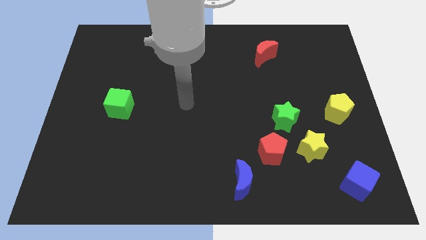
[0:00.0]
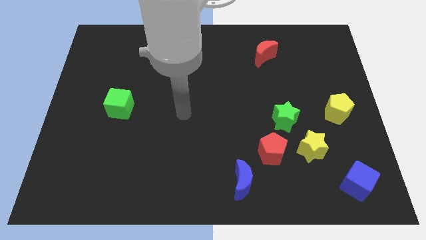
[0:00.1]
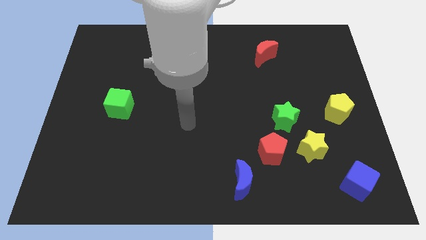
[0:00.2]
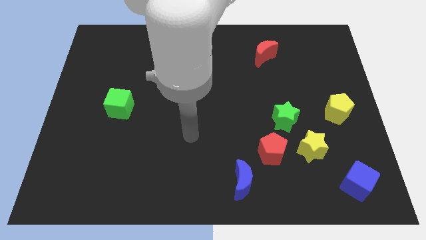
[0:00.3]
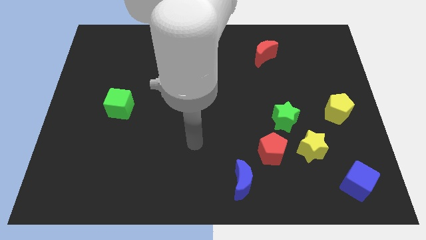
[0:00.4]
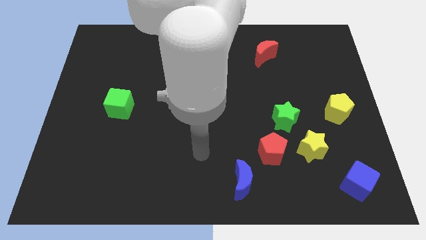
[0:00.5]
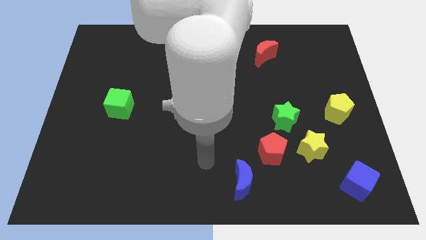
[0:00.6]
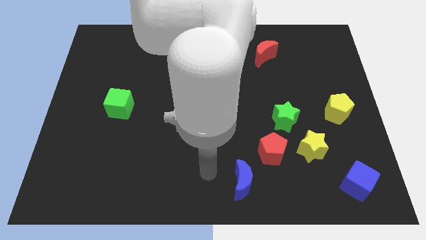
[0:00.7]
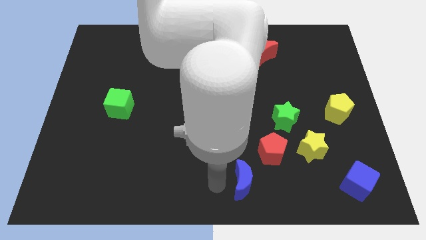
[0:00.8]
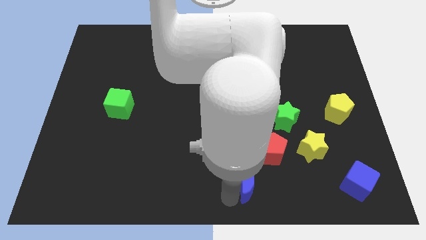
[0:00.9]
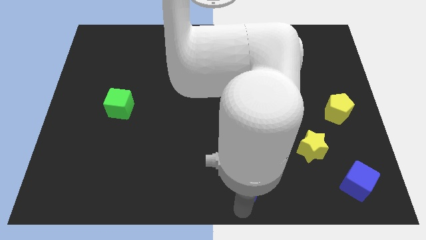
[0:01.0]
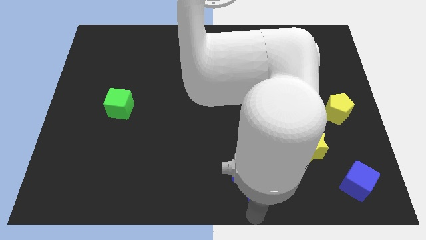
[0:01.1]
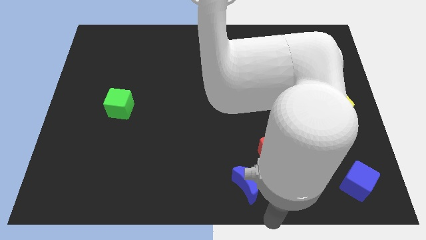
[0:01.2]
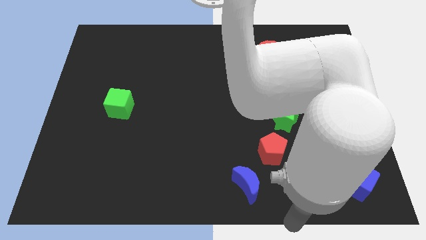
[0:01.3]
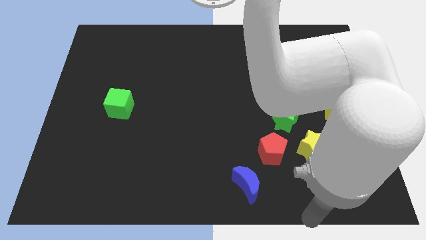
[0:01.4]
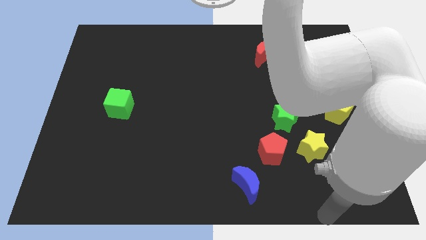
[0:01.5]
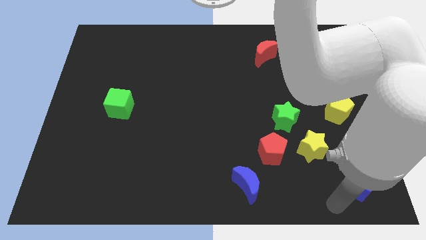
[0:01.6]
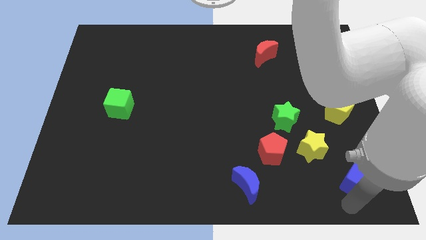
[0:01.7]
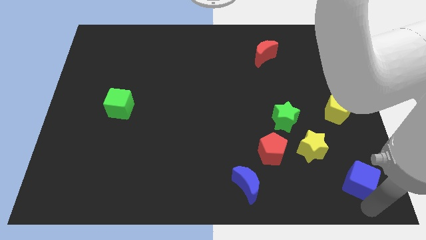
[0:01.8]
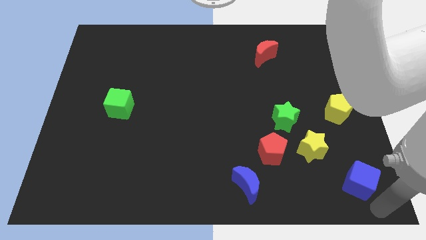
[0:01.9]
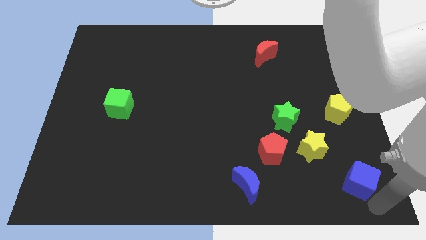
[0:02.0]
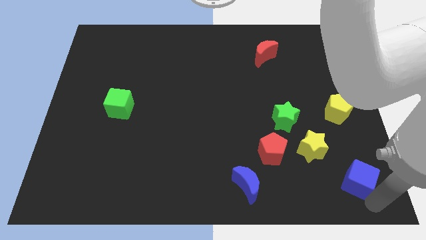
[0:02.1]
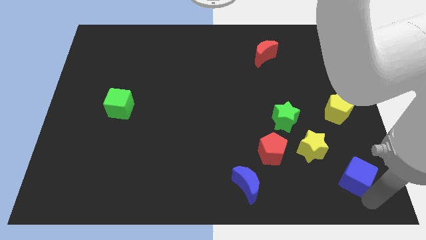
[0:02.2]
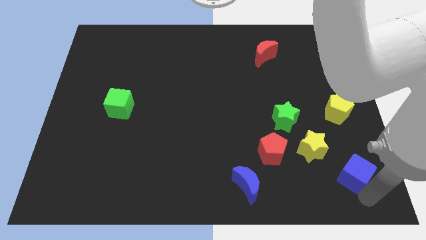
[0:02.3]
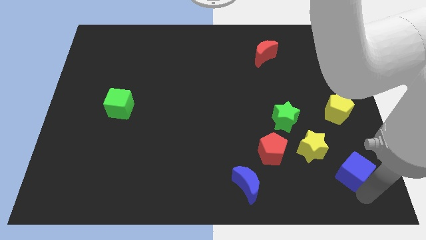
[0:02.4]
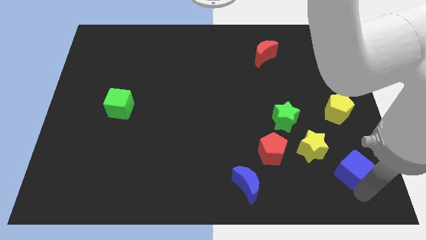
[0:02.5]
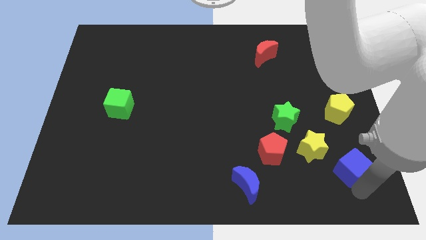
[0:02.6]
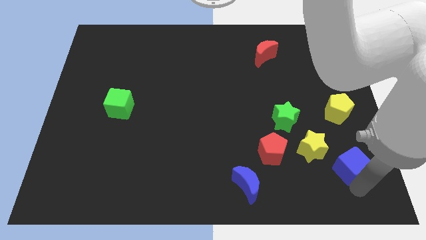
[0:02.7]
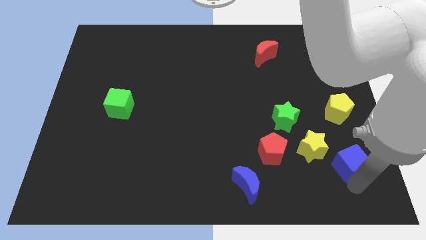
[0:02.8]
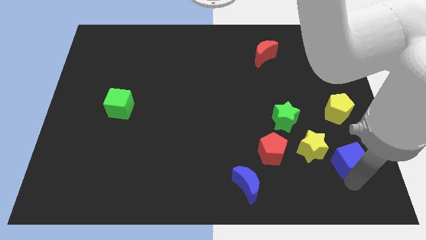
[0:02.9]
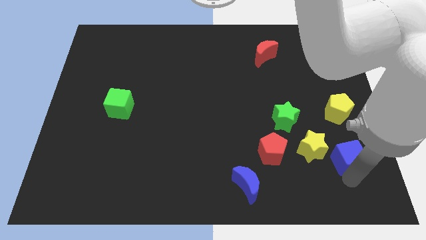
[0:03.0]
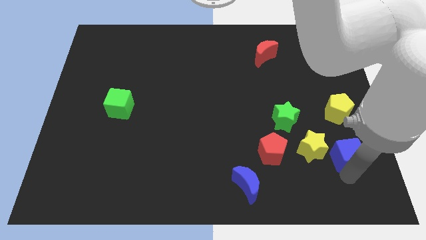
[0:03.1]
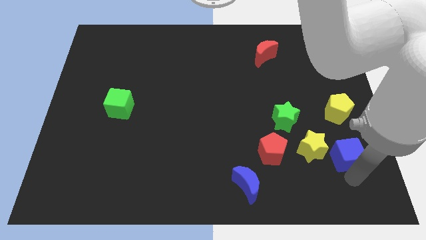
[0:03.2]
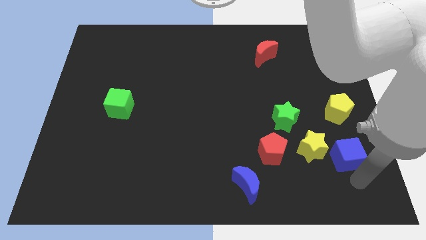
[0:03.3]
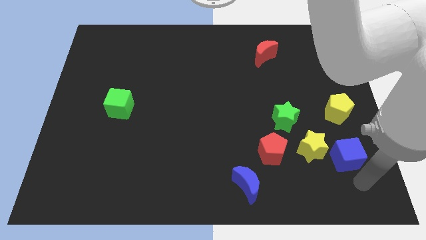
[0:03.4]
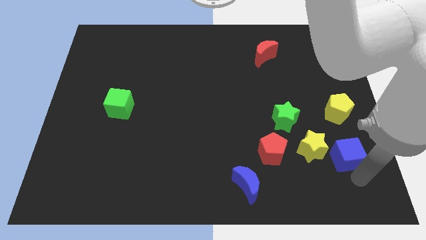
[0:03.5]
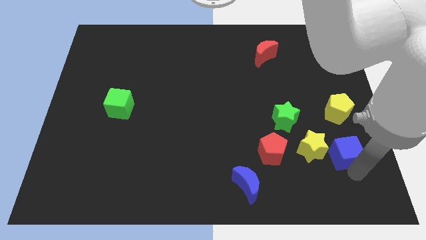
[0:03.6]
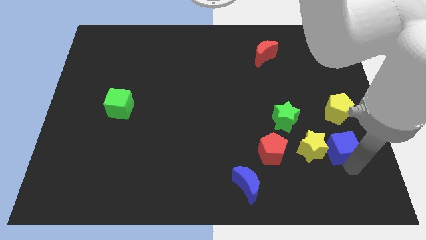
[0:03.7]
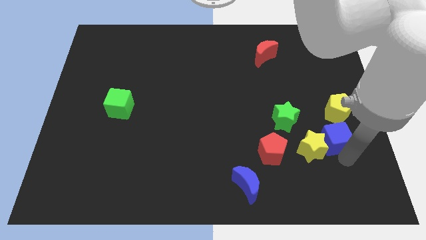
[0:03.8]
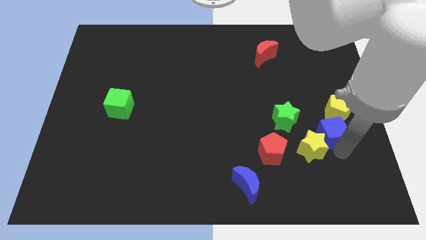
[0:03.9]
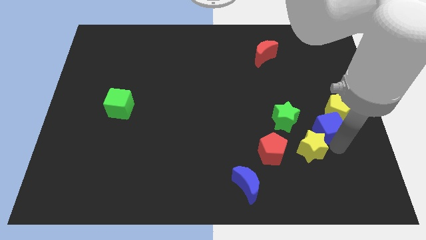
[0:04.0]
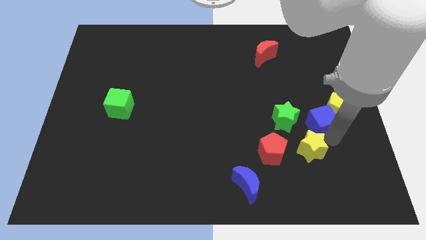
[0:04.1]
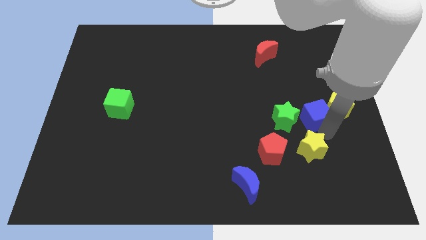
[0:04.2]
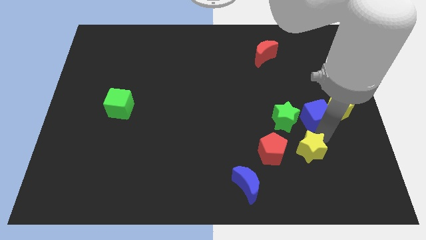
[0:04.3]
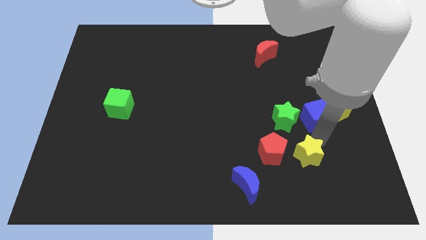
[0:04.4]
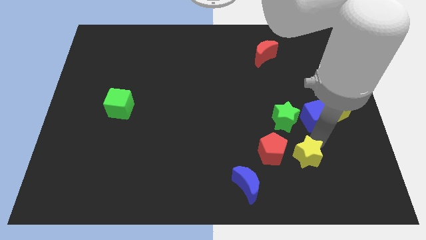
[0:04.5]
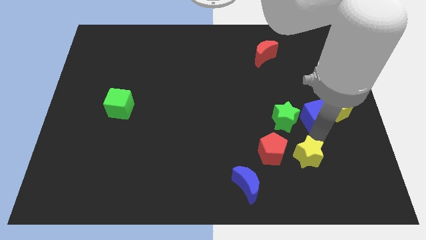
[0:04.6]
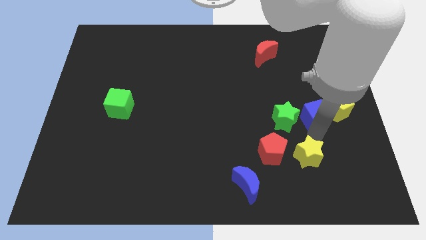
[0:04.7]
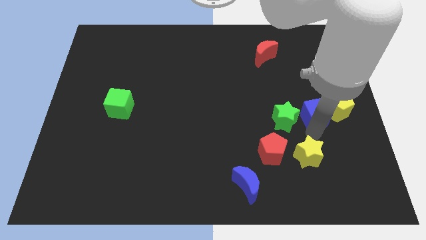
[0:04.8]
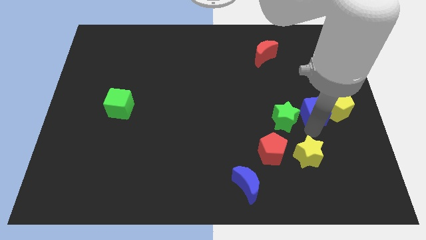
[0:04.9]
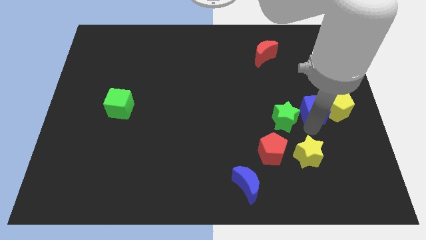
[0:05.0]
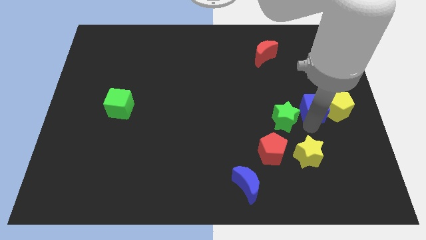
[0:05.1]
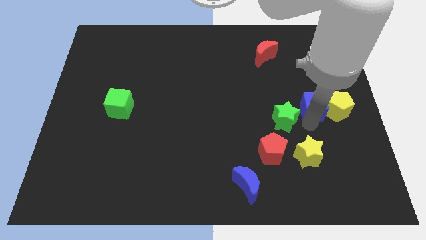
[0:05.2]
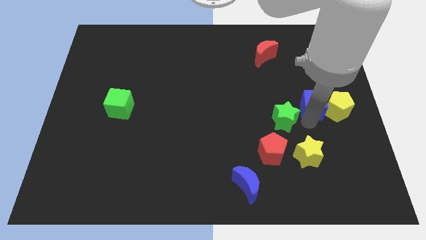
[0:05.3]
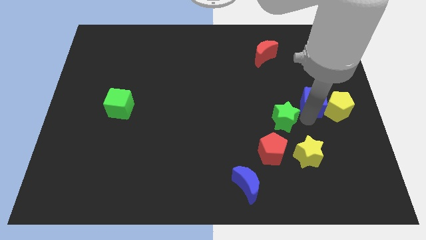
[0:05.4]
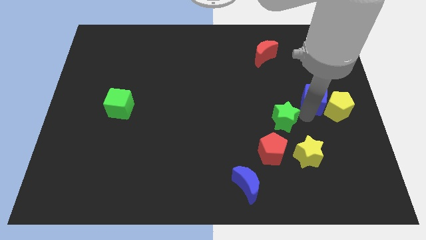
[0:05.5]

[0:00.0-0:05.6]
move the blue cube up

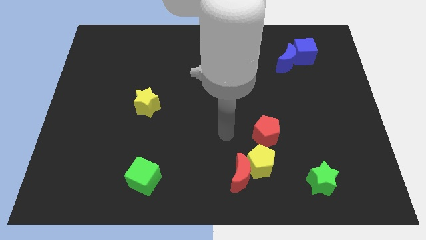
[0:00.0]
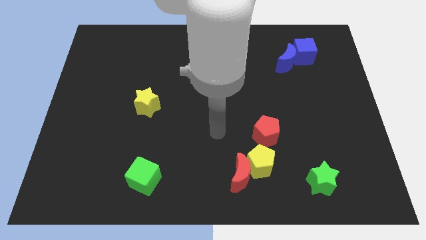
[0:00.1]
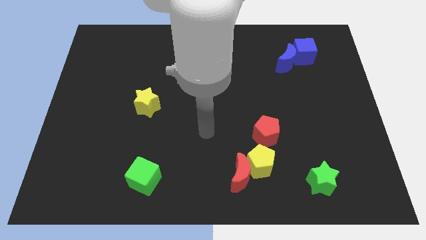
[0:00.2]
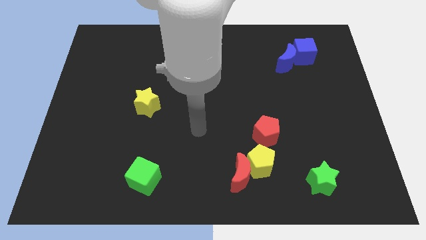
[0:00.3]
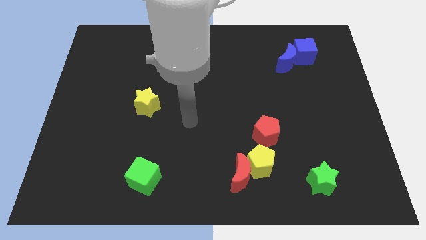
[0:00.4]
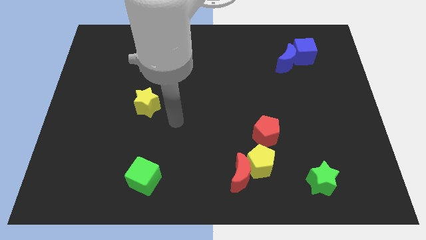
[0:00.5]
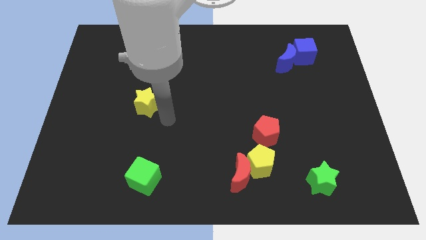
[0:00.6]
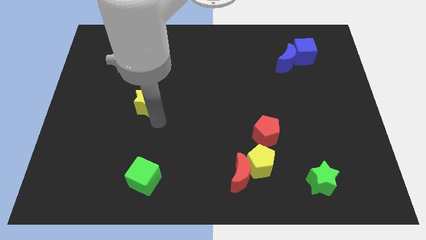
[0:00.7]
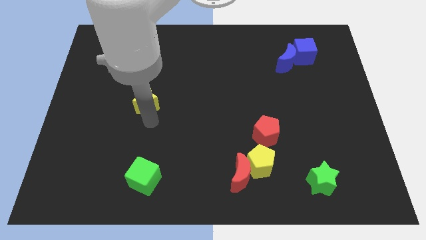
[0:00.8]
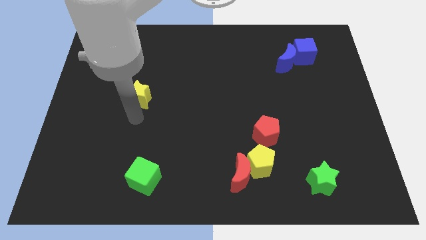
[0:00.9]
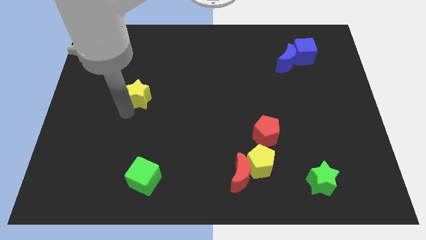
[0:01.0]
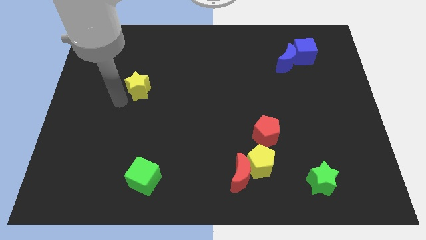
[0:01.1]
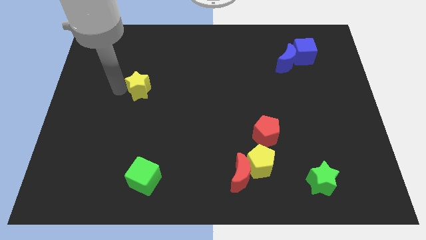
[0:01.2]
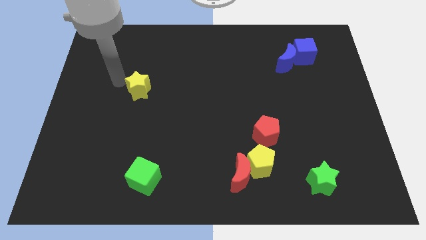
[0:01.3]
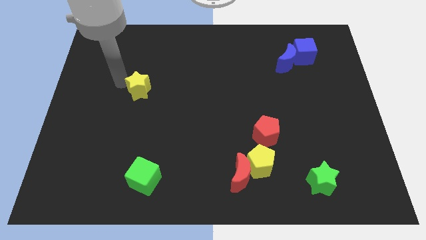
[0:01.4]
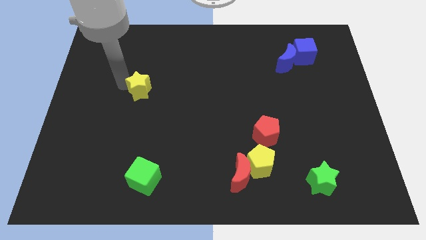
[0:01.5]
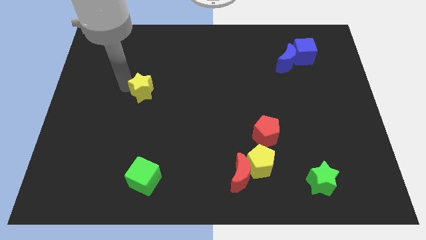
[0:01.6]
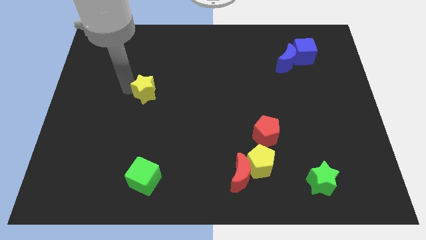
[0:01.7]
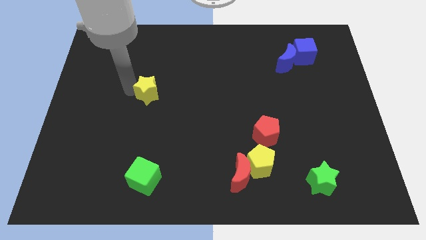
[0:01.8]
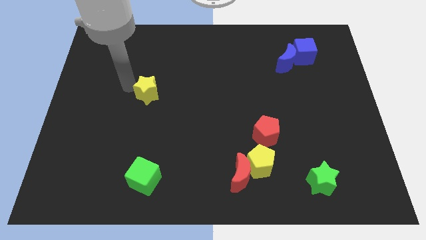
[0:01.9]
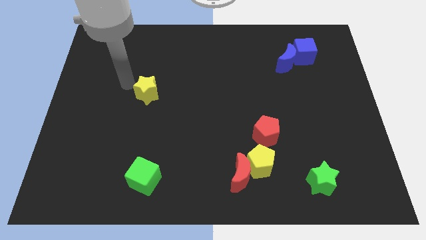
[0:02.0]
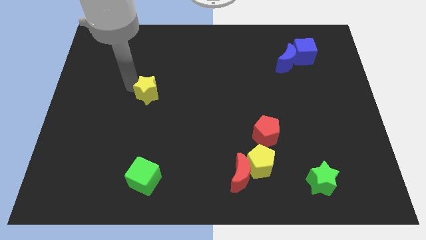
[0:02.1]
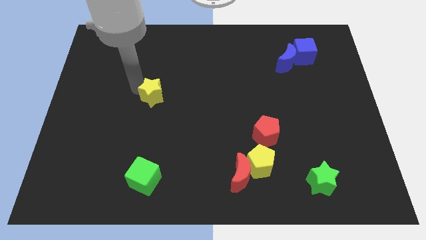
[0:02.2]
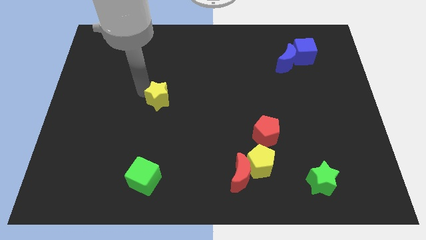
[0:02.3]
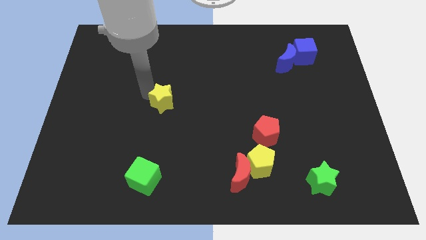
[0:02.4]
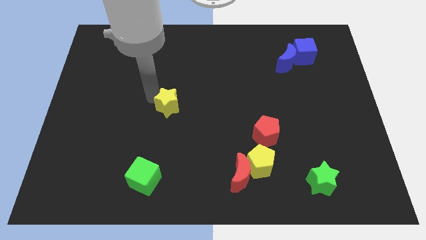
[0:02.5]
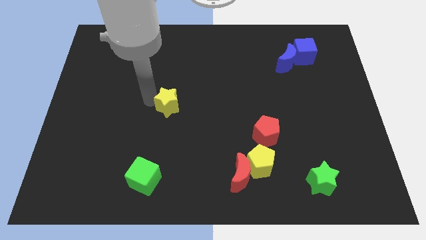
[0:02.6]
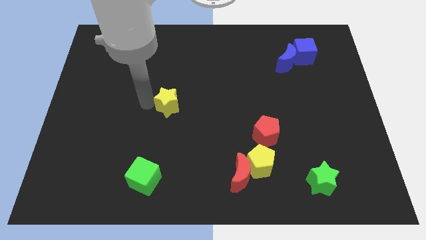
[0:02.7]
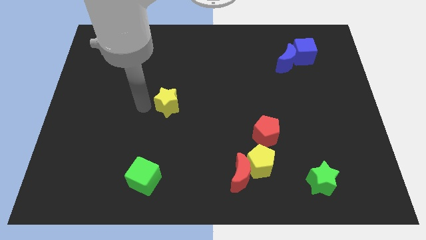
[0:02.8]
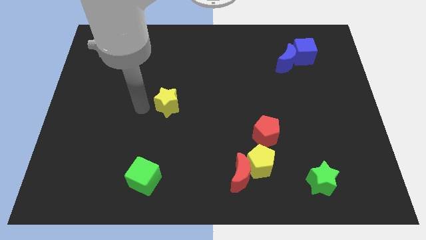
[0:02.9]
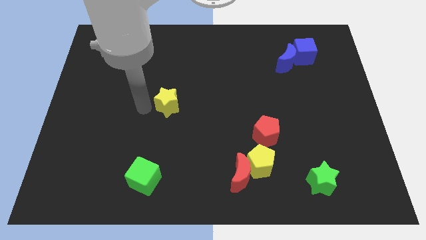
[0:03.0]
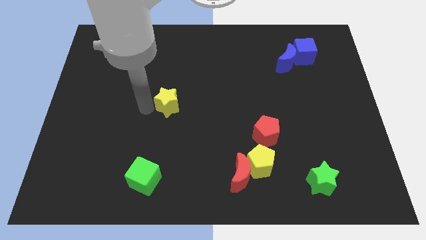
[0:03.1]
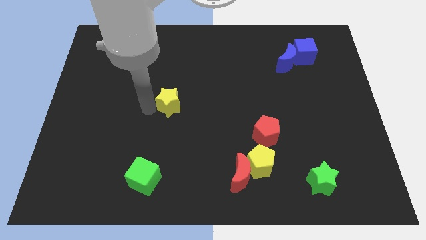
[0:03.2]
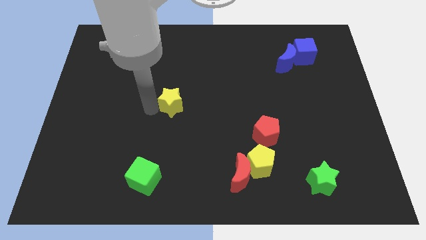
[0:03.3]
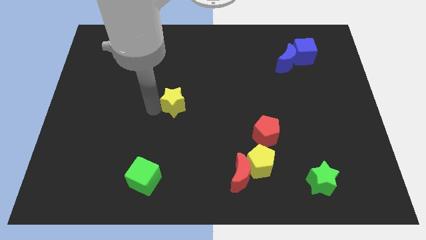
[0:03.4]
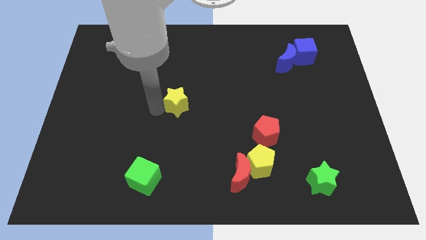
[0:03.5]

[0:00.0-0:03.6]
move the yellow star somewhat to the right
